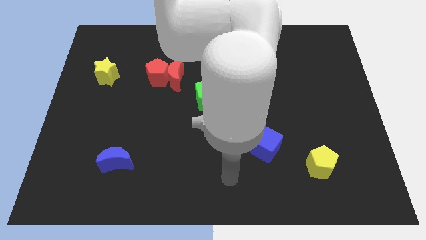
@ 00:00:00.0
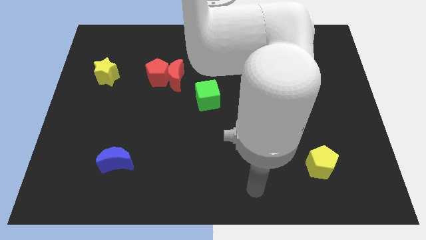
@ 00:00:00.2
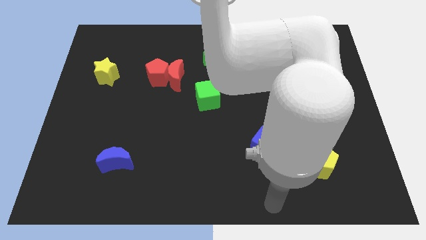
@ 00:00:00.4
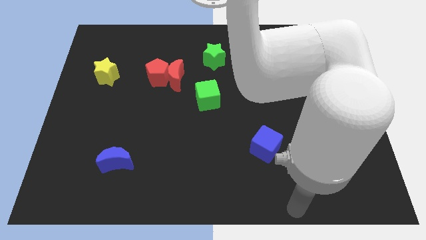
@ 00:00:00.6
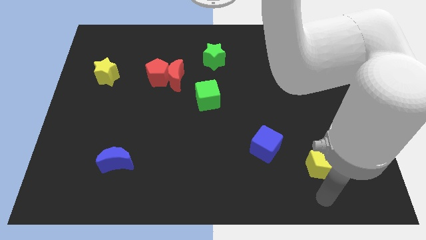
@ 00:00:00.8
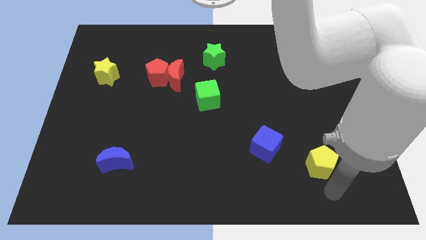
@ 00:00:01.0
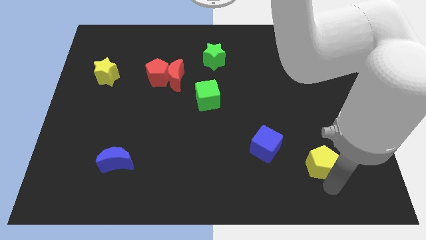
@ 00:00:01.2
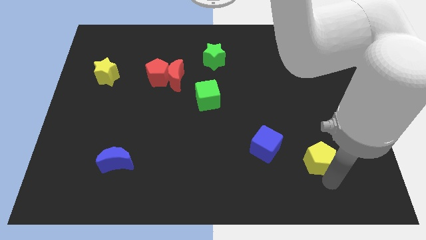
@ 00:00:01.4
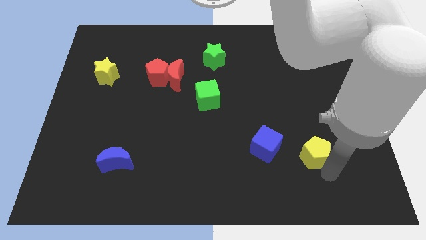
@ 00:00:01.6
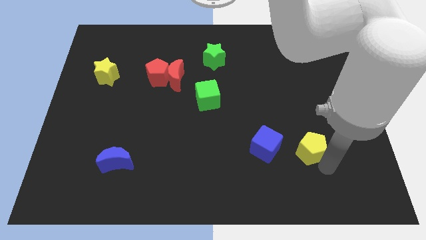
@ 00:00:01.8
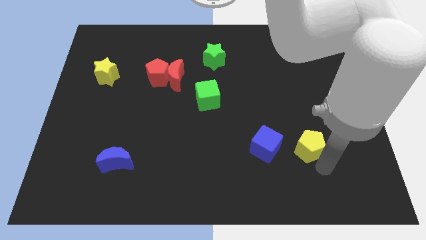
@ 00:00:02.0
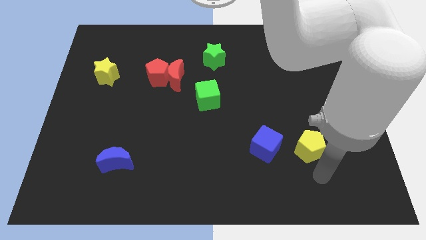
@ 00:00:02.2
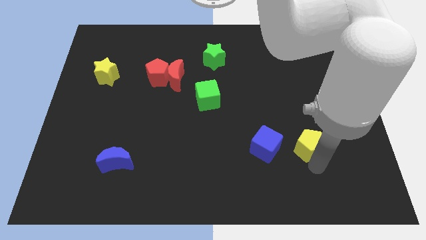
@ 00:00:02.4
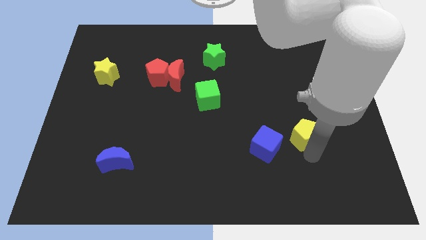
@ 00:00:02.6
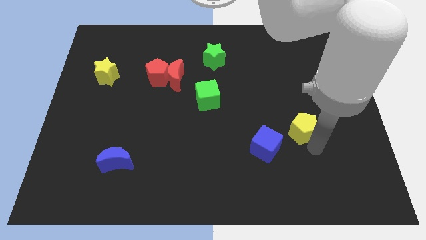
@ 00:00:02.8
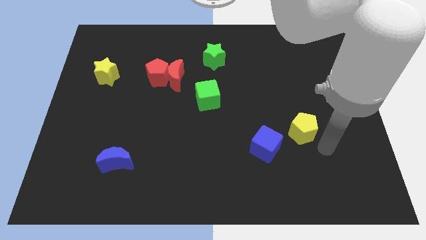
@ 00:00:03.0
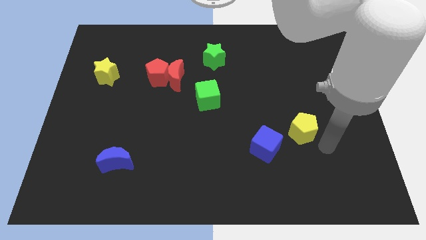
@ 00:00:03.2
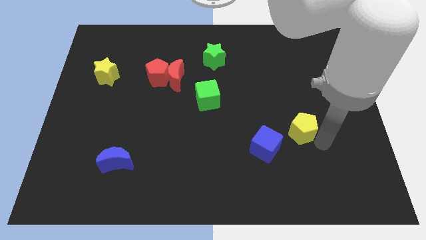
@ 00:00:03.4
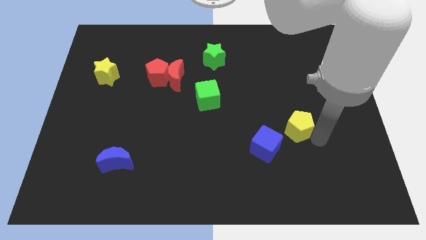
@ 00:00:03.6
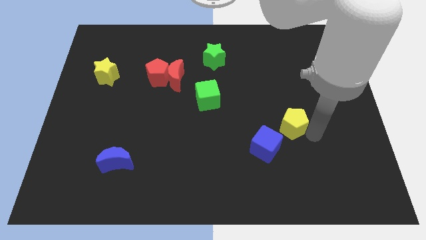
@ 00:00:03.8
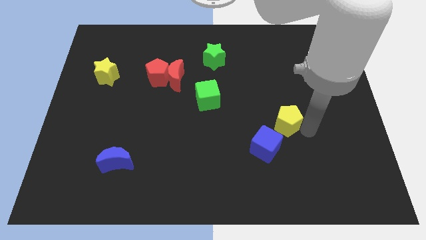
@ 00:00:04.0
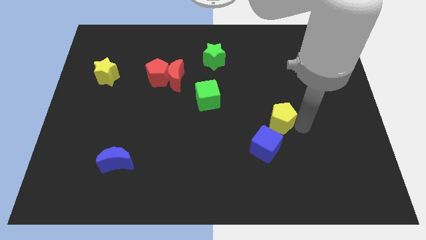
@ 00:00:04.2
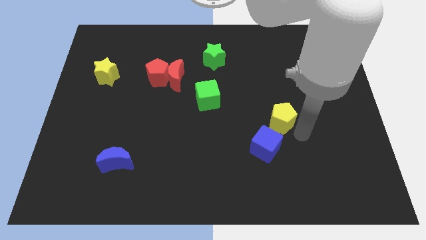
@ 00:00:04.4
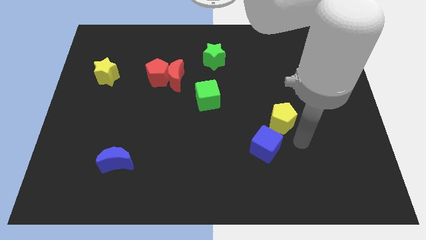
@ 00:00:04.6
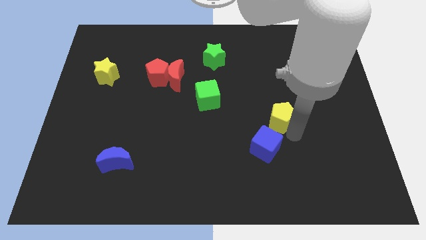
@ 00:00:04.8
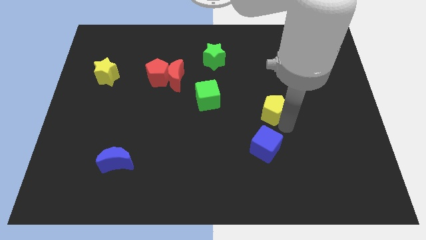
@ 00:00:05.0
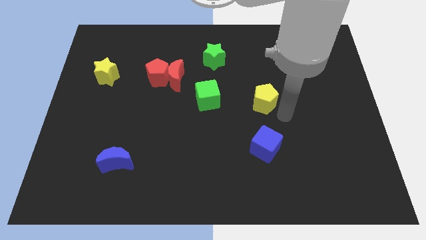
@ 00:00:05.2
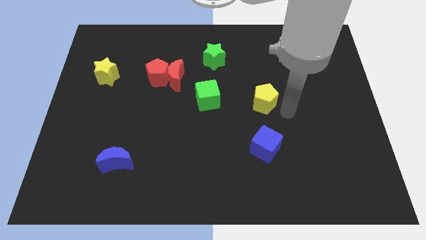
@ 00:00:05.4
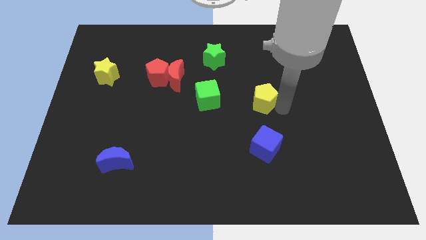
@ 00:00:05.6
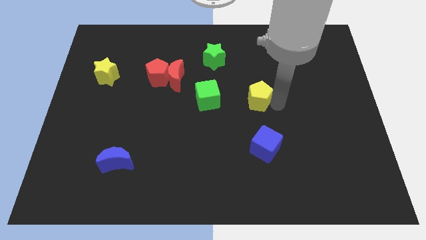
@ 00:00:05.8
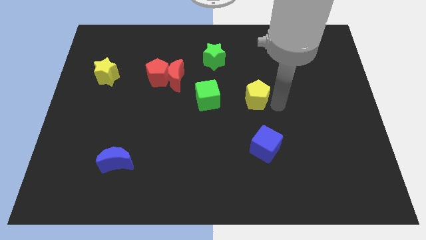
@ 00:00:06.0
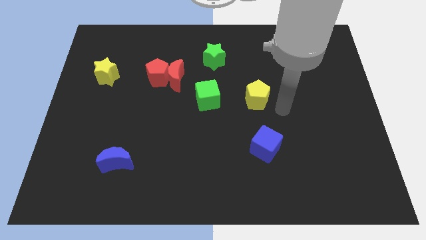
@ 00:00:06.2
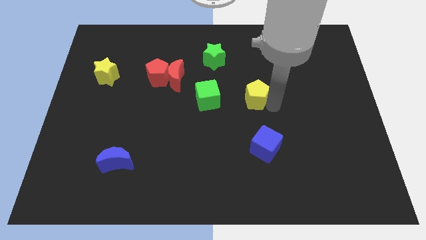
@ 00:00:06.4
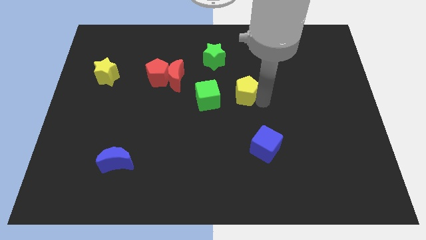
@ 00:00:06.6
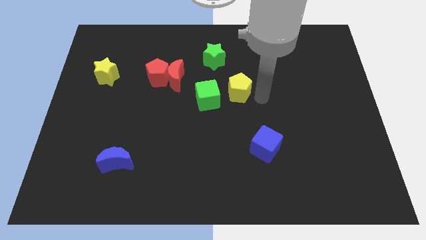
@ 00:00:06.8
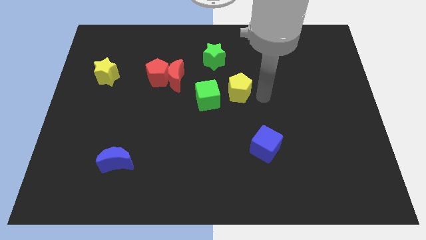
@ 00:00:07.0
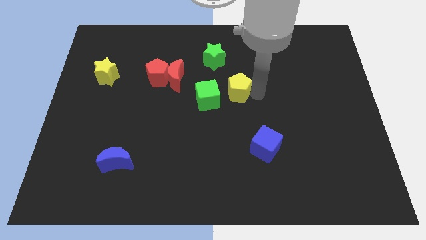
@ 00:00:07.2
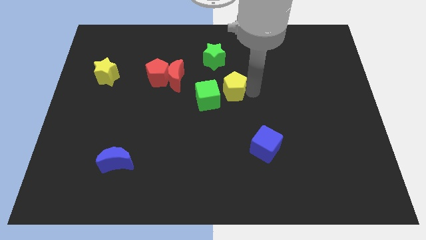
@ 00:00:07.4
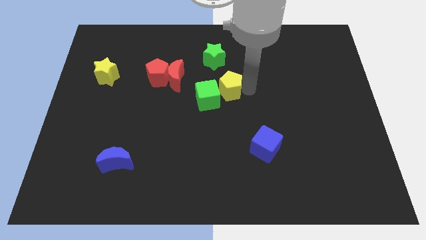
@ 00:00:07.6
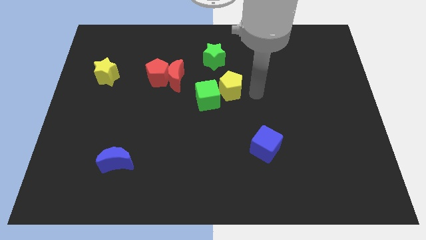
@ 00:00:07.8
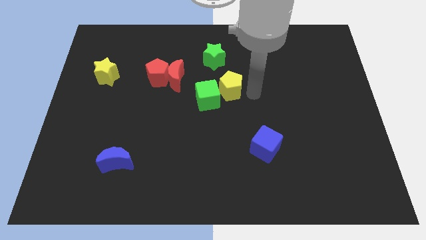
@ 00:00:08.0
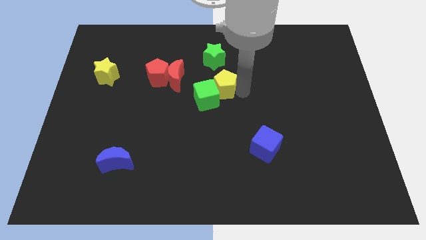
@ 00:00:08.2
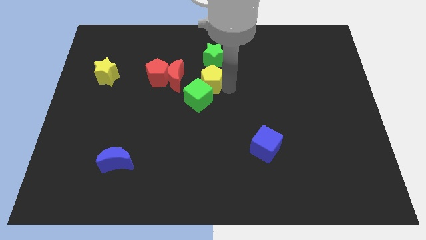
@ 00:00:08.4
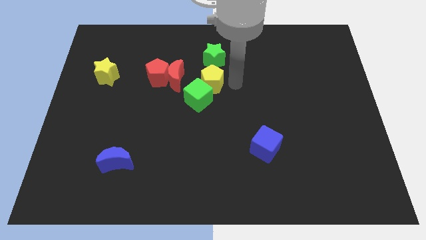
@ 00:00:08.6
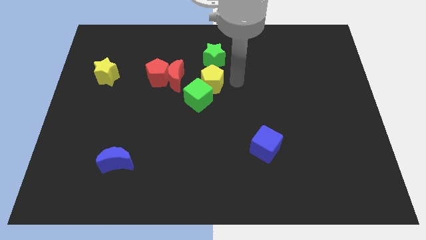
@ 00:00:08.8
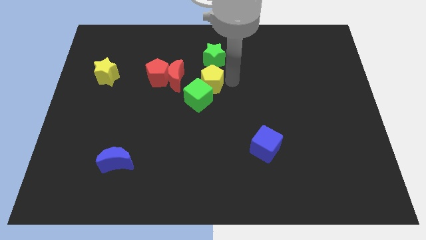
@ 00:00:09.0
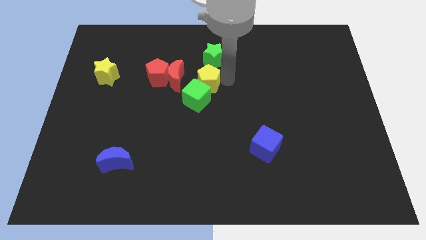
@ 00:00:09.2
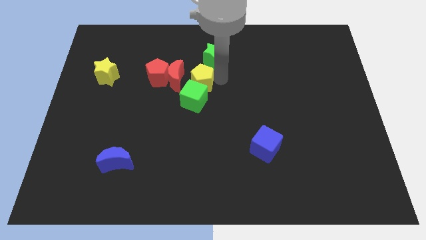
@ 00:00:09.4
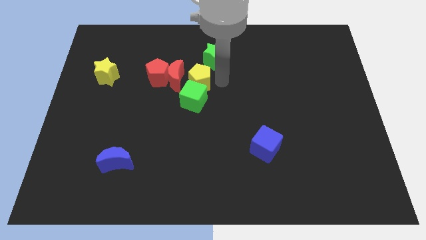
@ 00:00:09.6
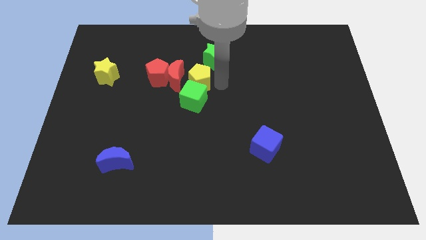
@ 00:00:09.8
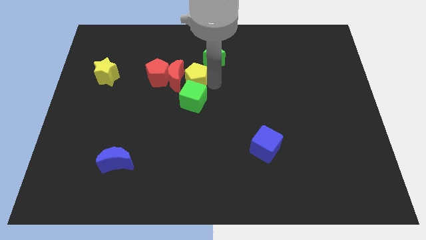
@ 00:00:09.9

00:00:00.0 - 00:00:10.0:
slide the yellow pentagon close to the red moon

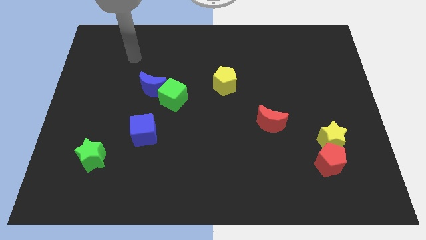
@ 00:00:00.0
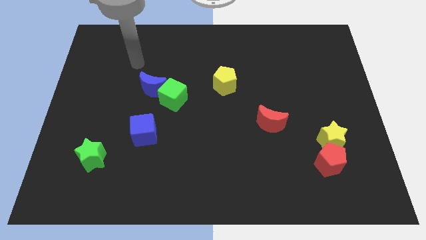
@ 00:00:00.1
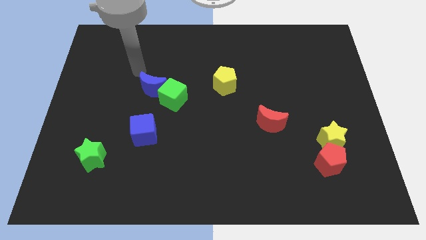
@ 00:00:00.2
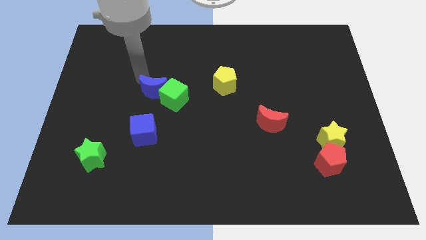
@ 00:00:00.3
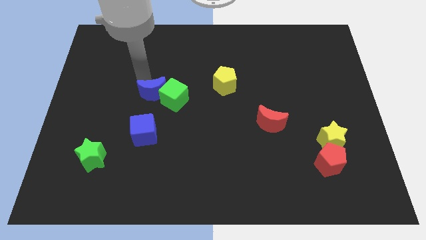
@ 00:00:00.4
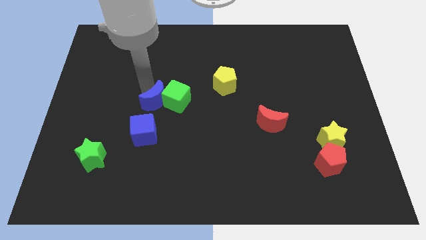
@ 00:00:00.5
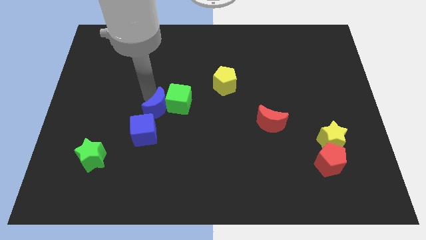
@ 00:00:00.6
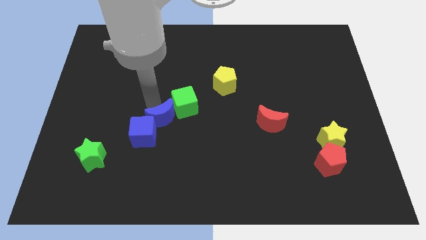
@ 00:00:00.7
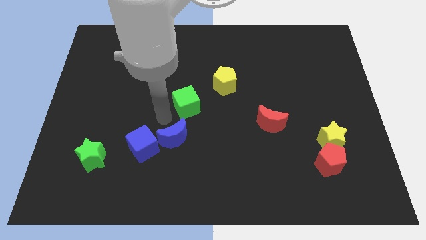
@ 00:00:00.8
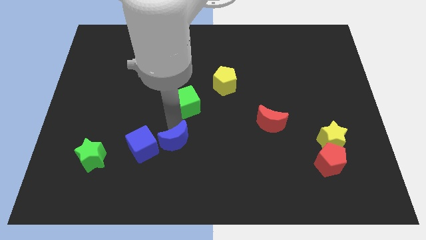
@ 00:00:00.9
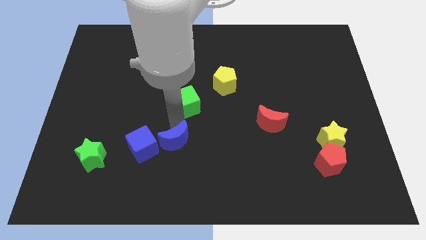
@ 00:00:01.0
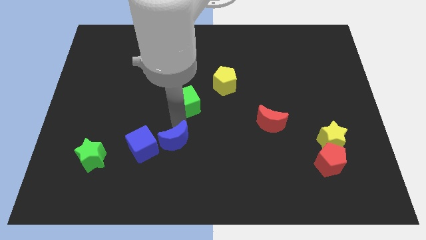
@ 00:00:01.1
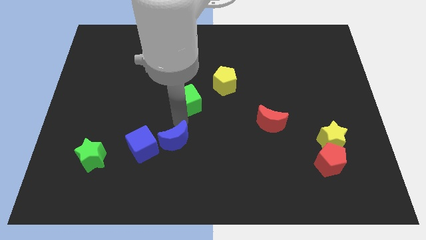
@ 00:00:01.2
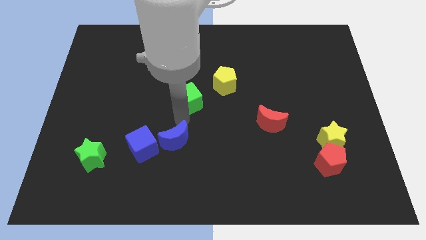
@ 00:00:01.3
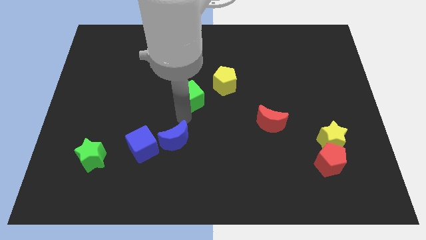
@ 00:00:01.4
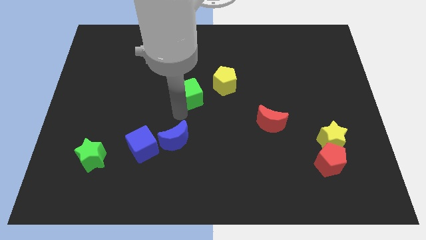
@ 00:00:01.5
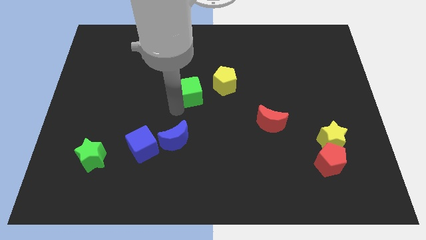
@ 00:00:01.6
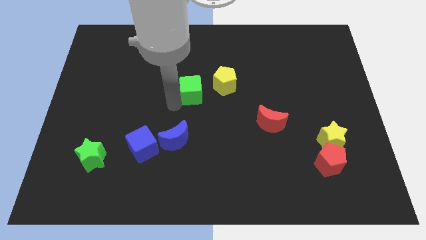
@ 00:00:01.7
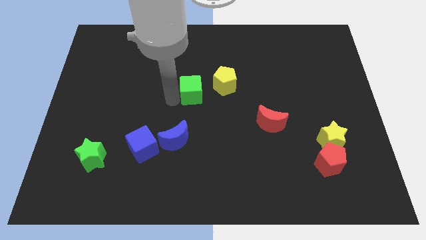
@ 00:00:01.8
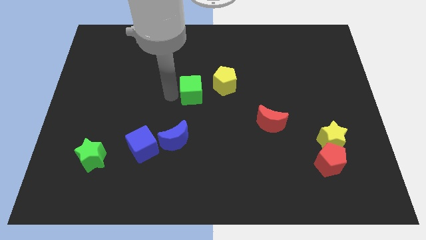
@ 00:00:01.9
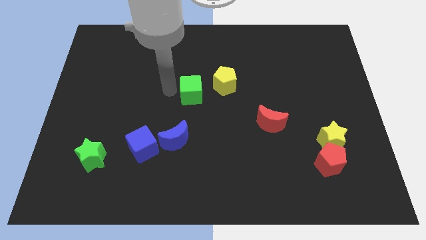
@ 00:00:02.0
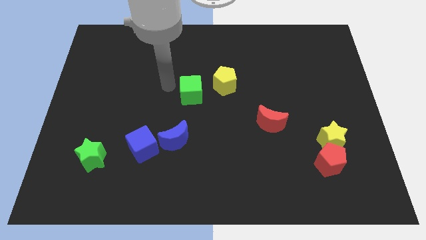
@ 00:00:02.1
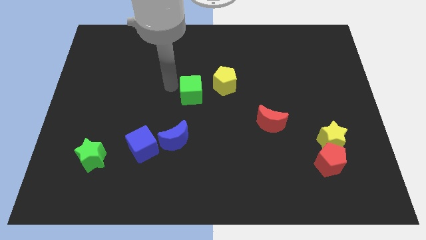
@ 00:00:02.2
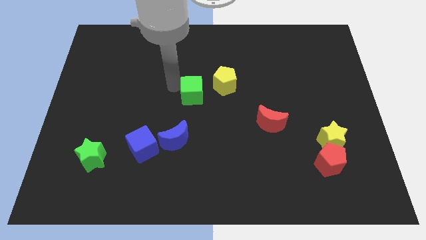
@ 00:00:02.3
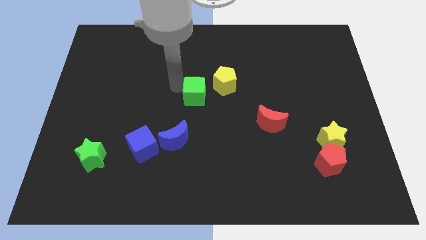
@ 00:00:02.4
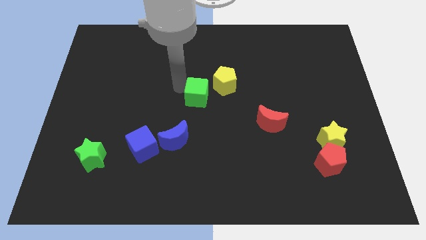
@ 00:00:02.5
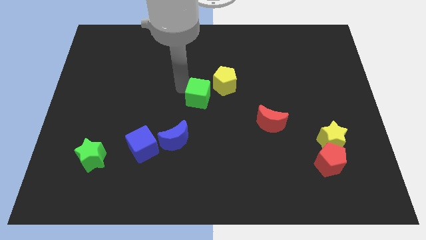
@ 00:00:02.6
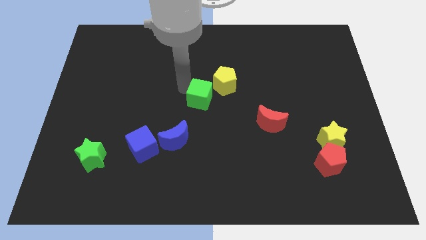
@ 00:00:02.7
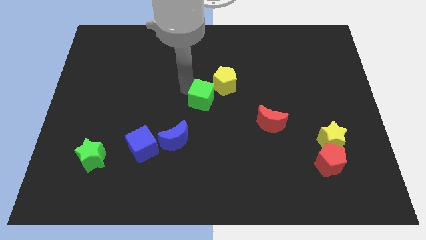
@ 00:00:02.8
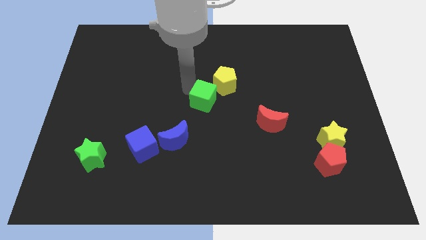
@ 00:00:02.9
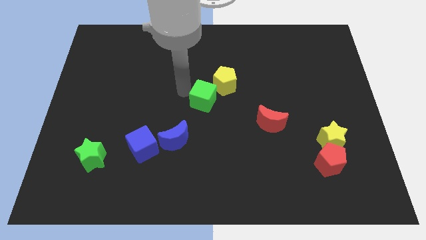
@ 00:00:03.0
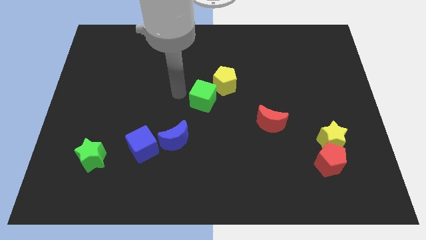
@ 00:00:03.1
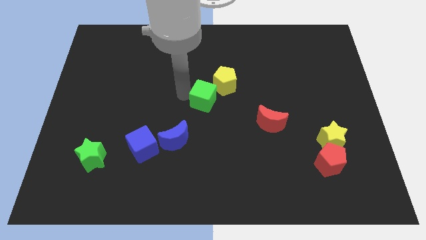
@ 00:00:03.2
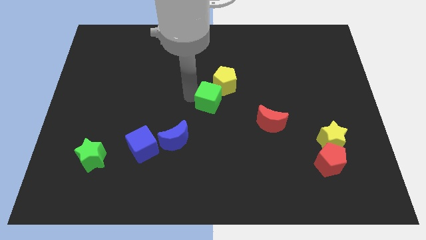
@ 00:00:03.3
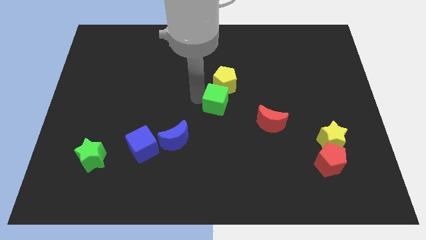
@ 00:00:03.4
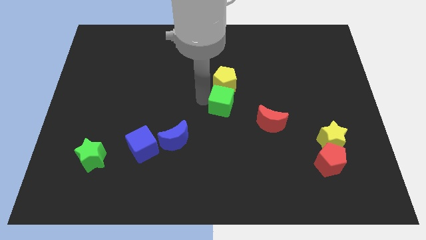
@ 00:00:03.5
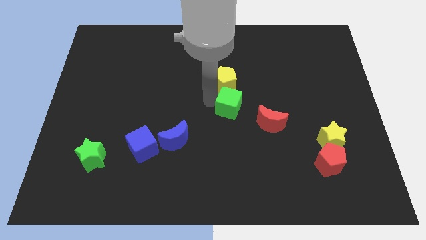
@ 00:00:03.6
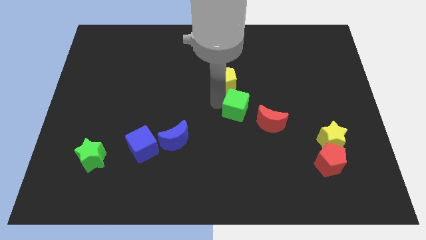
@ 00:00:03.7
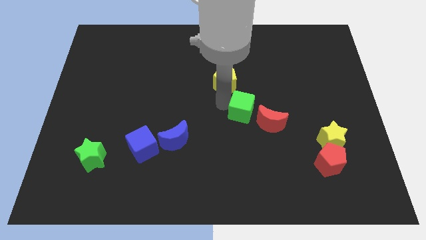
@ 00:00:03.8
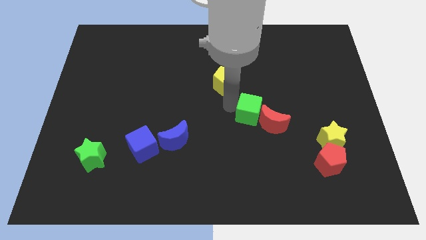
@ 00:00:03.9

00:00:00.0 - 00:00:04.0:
put the green cube towards the red moon
